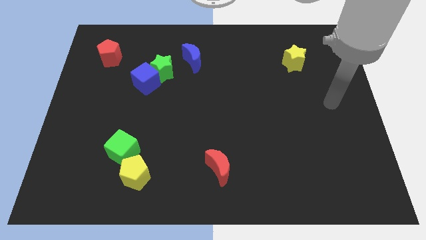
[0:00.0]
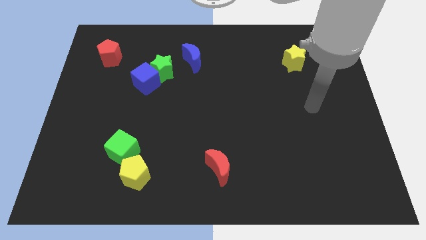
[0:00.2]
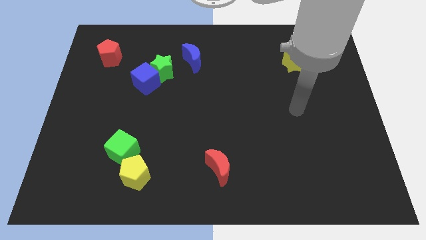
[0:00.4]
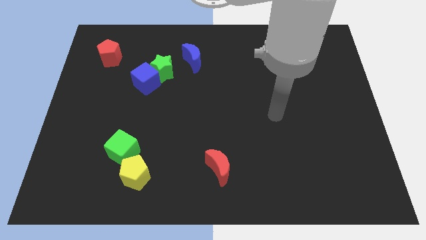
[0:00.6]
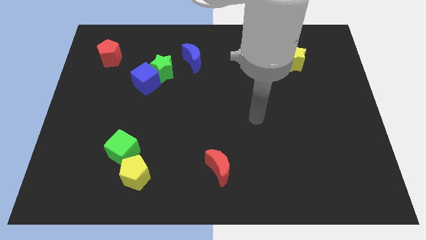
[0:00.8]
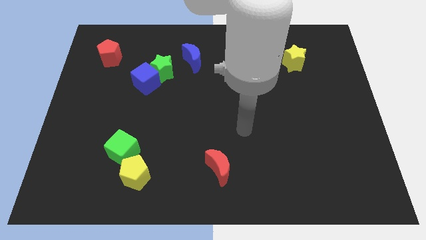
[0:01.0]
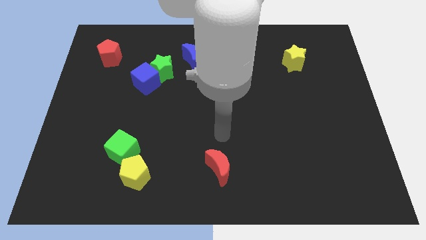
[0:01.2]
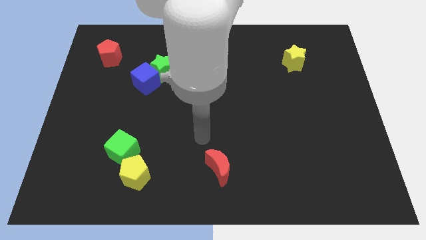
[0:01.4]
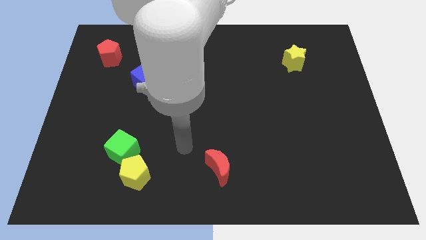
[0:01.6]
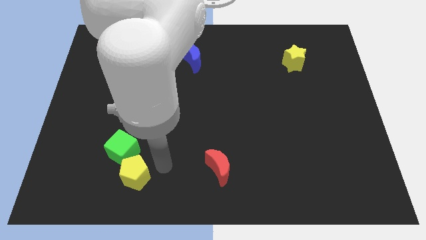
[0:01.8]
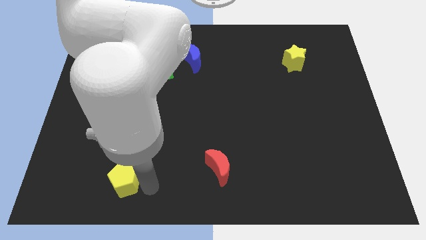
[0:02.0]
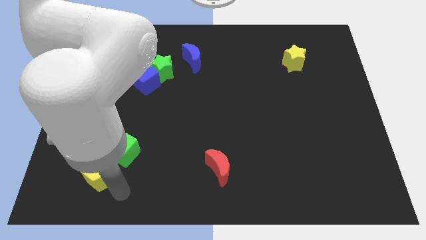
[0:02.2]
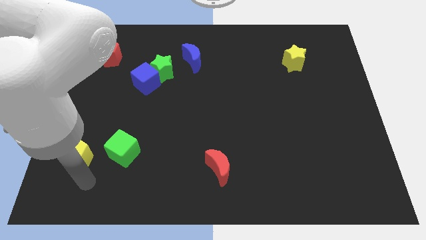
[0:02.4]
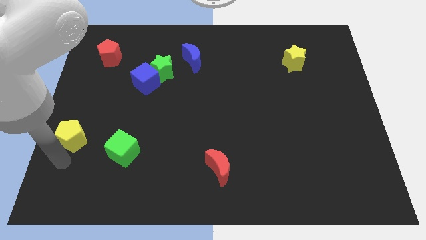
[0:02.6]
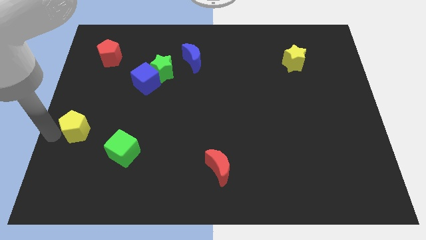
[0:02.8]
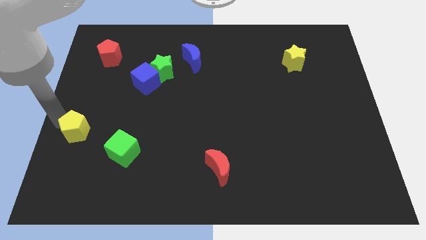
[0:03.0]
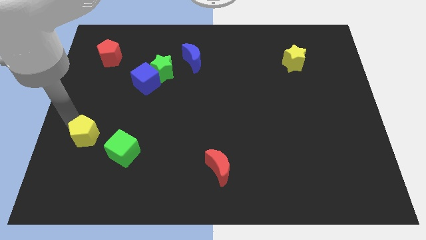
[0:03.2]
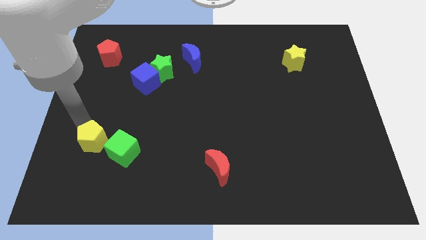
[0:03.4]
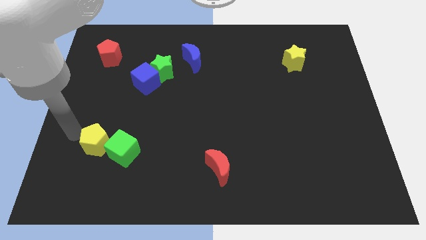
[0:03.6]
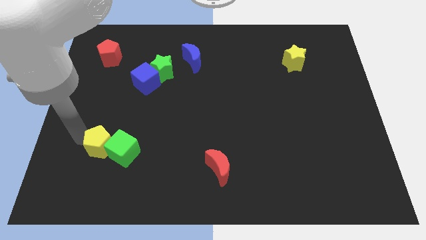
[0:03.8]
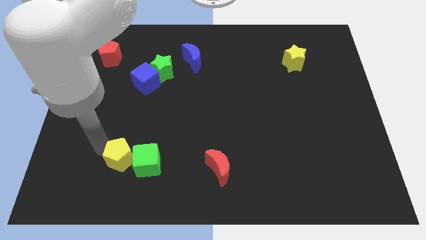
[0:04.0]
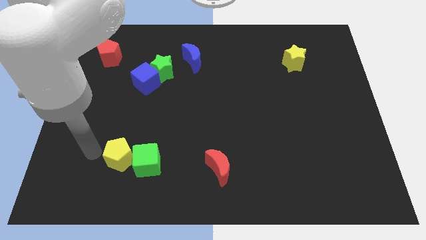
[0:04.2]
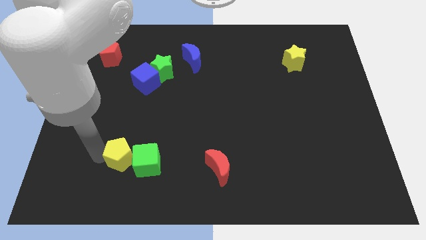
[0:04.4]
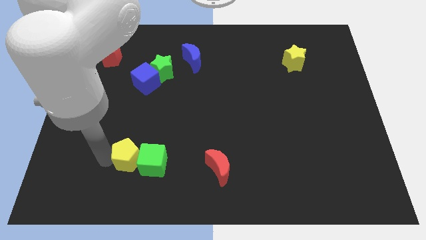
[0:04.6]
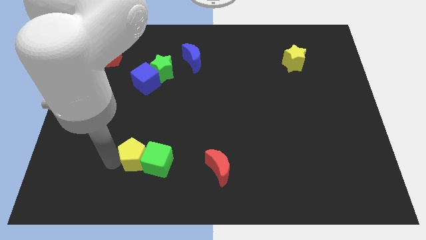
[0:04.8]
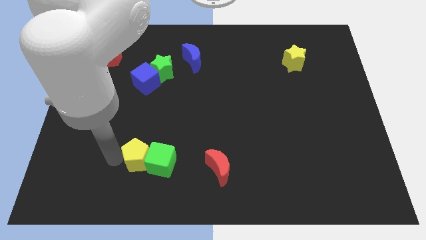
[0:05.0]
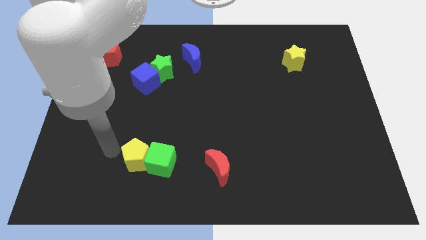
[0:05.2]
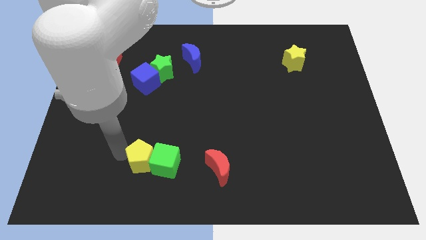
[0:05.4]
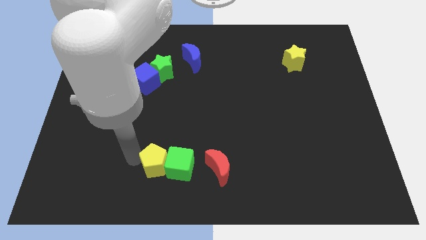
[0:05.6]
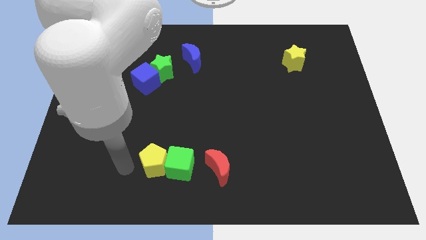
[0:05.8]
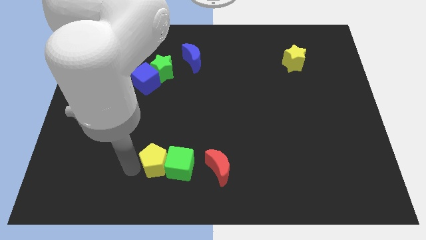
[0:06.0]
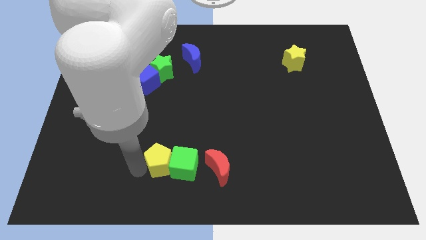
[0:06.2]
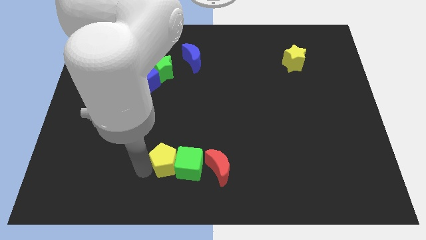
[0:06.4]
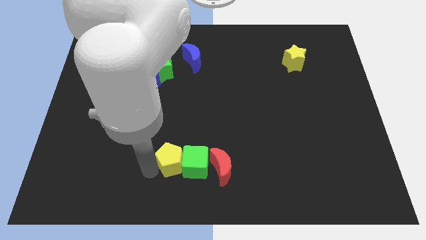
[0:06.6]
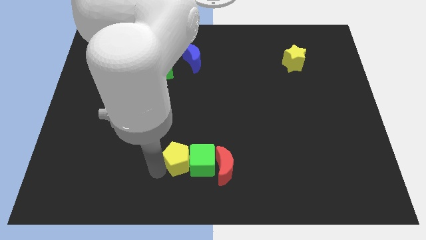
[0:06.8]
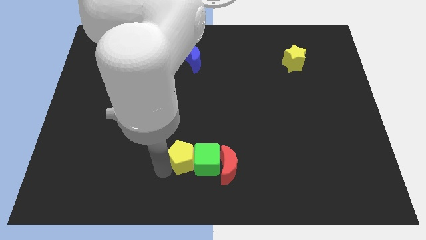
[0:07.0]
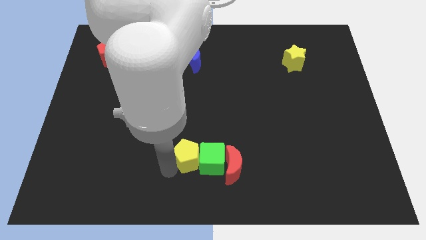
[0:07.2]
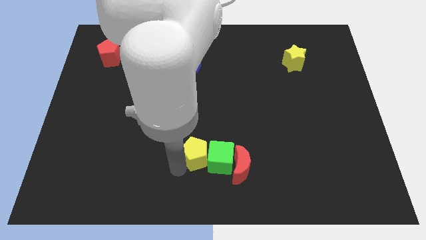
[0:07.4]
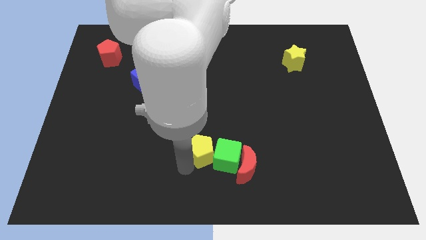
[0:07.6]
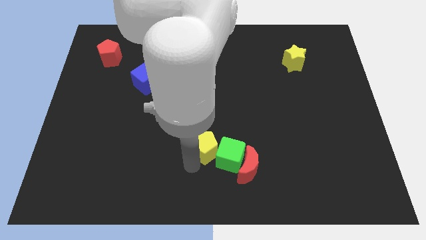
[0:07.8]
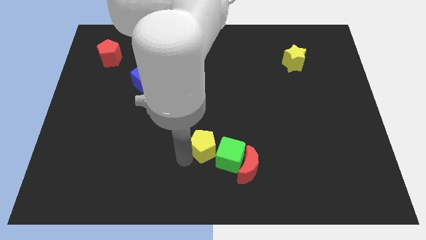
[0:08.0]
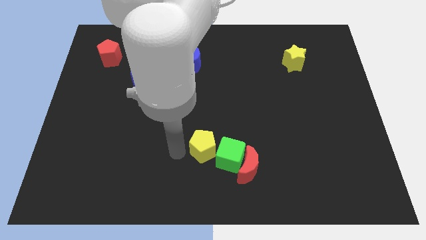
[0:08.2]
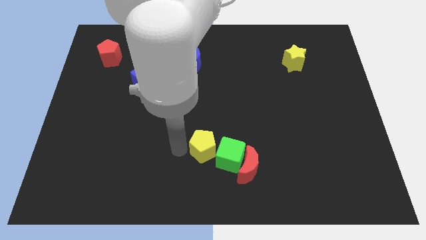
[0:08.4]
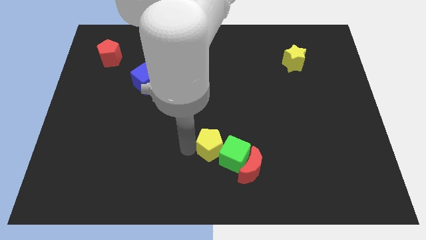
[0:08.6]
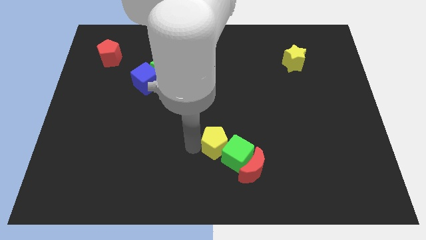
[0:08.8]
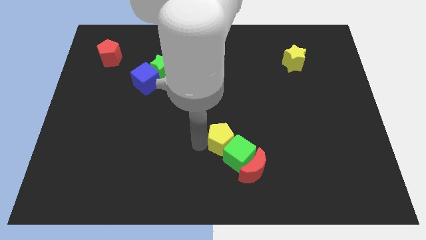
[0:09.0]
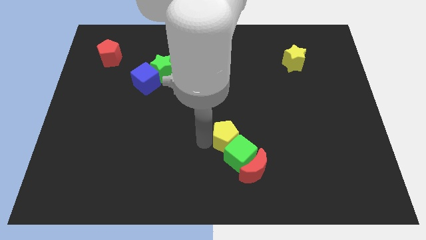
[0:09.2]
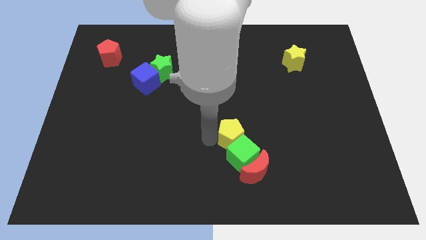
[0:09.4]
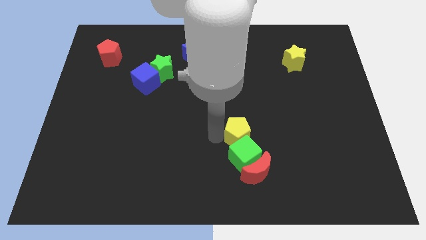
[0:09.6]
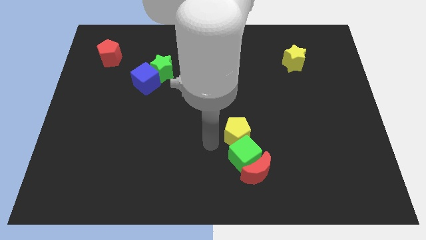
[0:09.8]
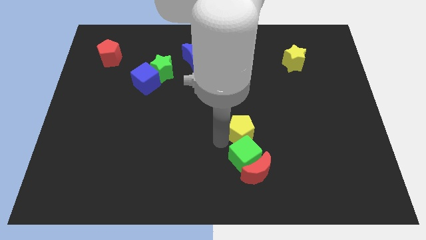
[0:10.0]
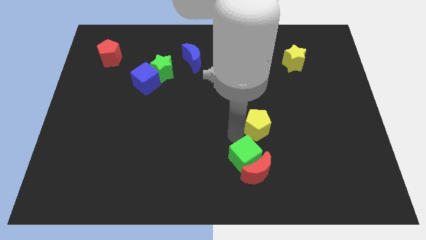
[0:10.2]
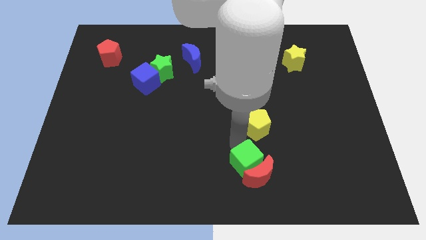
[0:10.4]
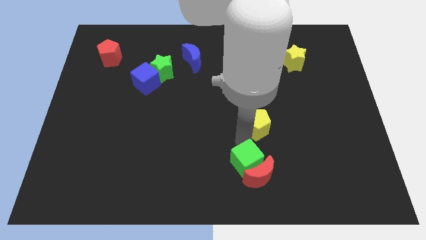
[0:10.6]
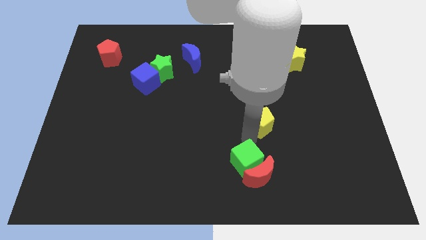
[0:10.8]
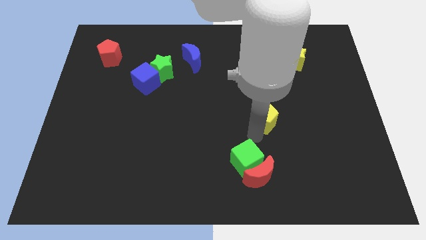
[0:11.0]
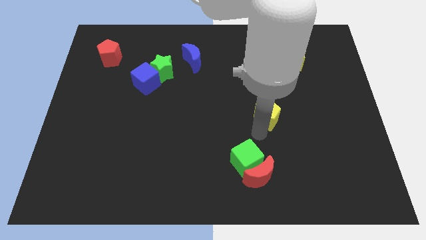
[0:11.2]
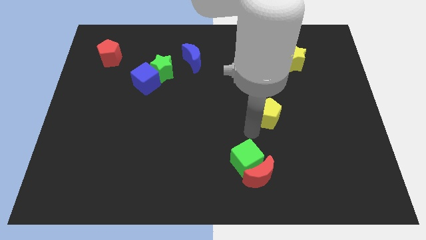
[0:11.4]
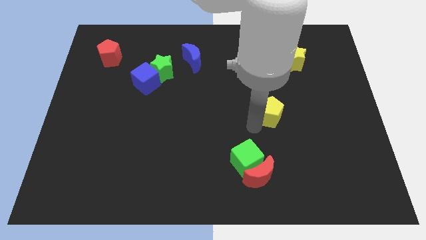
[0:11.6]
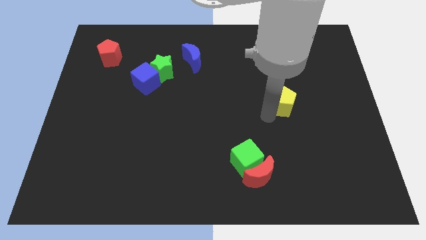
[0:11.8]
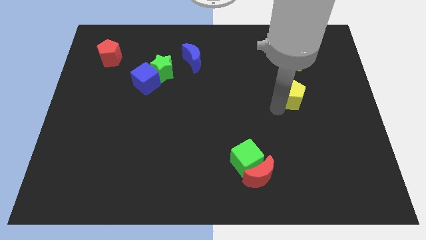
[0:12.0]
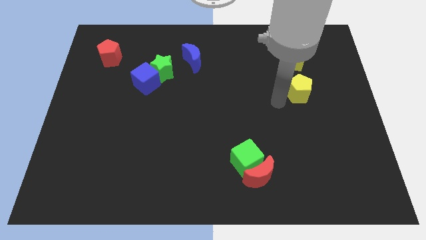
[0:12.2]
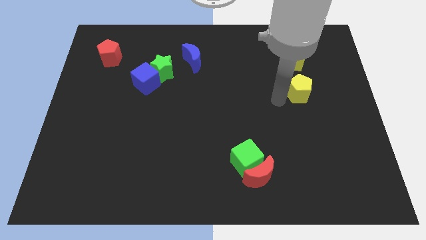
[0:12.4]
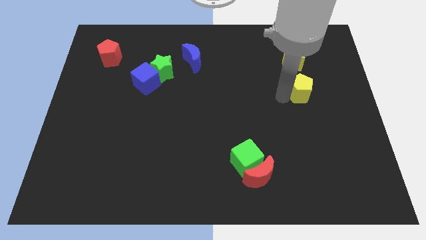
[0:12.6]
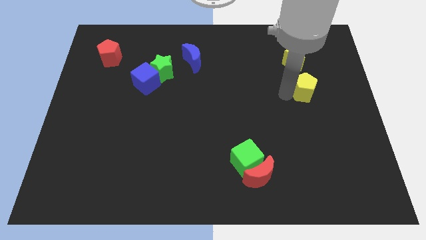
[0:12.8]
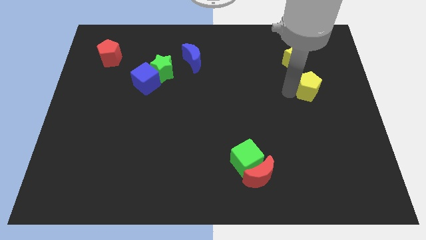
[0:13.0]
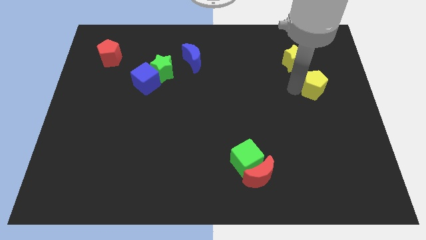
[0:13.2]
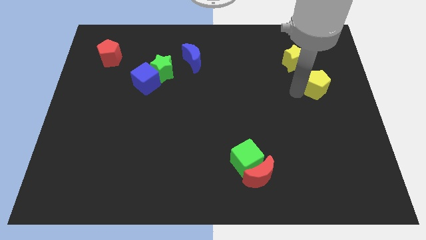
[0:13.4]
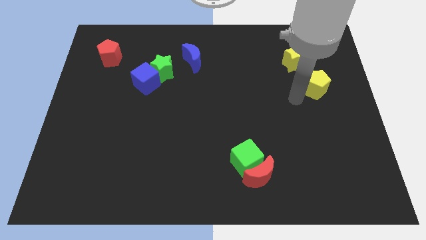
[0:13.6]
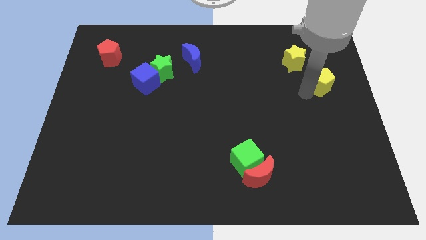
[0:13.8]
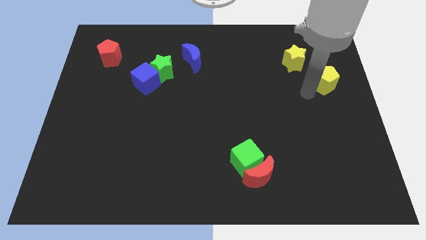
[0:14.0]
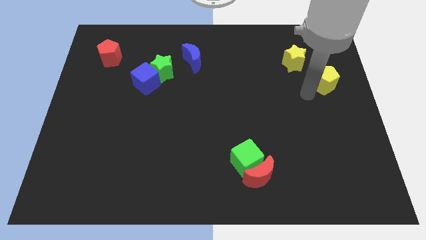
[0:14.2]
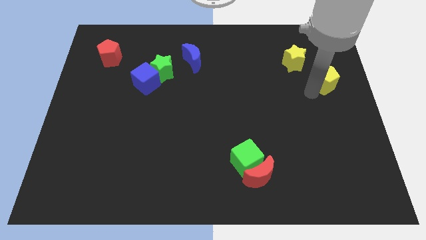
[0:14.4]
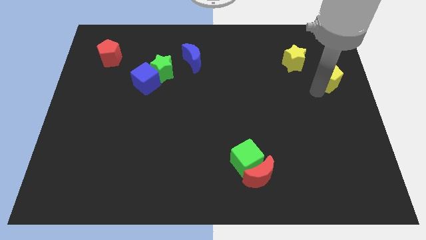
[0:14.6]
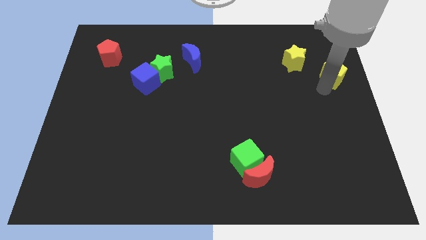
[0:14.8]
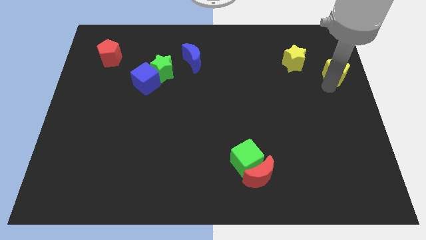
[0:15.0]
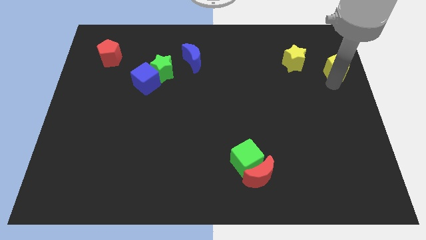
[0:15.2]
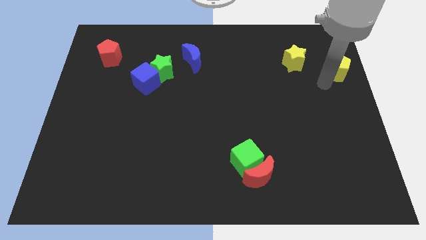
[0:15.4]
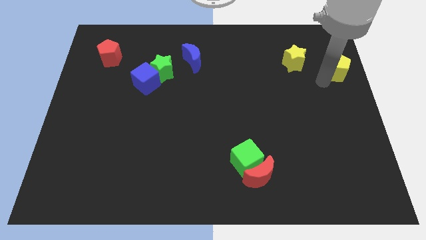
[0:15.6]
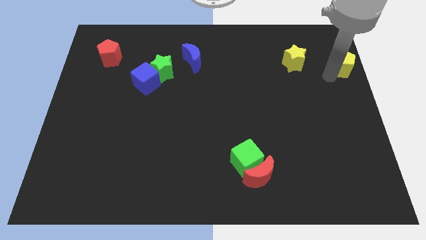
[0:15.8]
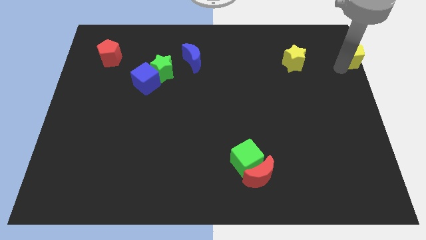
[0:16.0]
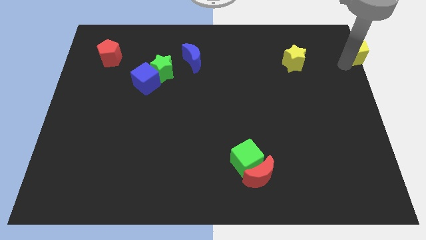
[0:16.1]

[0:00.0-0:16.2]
put the yellow pentagon to the top right of the board
